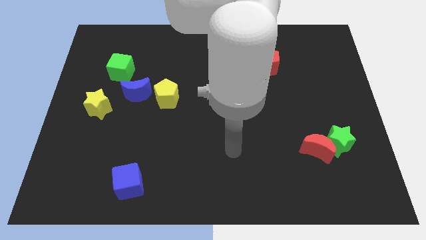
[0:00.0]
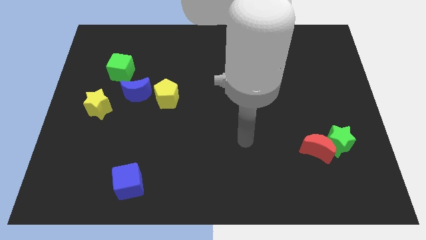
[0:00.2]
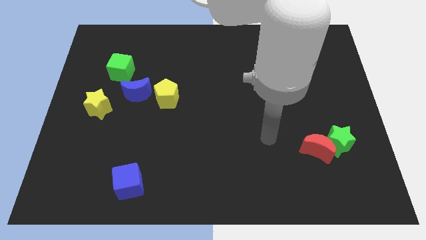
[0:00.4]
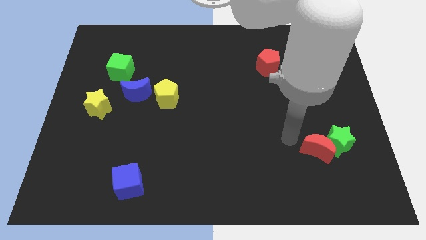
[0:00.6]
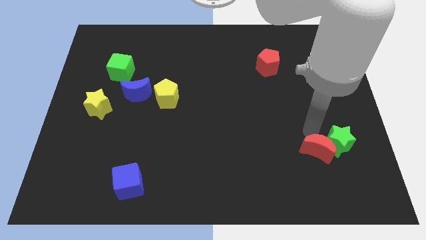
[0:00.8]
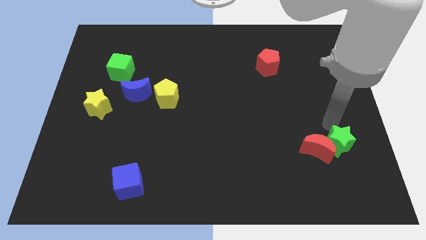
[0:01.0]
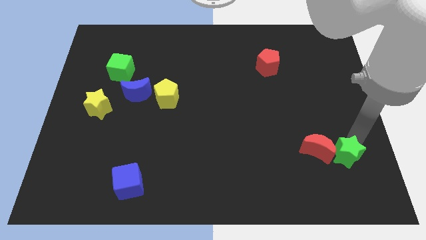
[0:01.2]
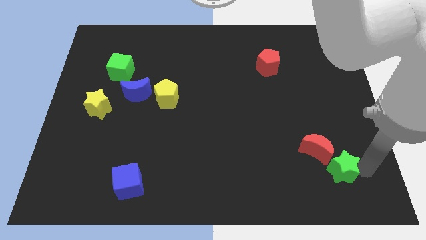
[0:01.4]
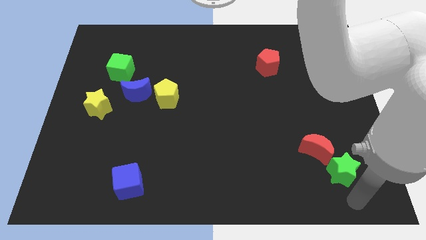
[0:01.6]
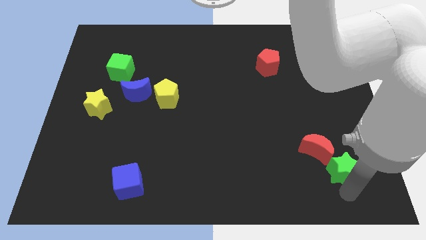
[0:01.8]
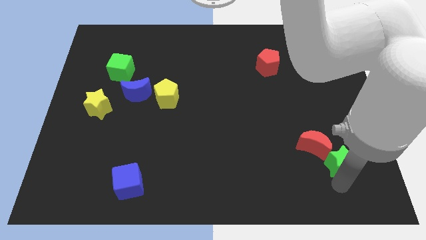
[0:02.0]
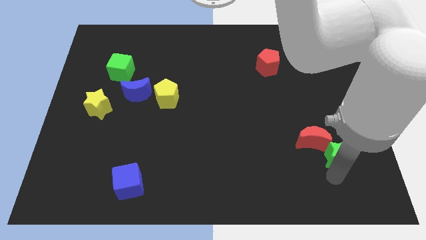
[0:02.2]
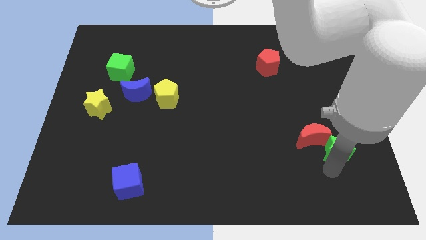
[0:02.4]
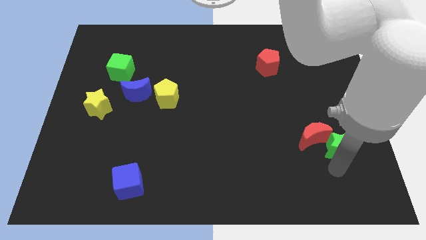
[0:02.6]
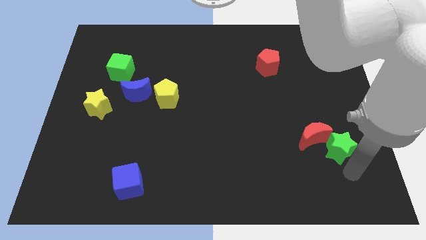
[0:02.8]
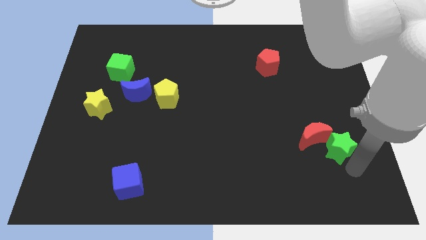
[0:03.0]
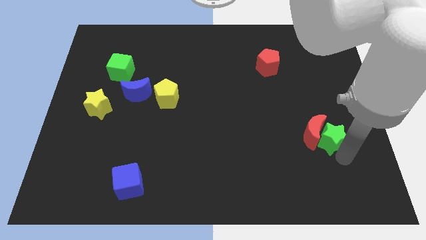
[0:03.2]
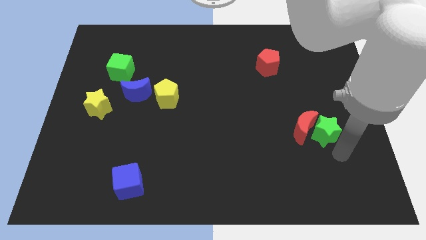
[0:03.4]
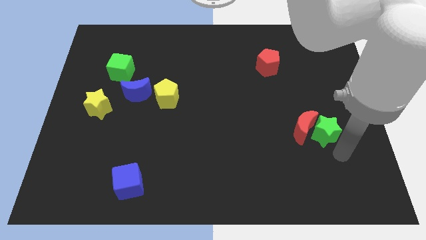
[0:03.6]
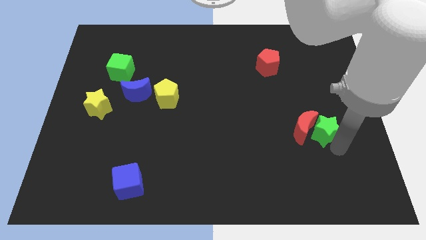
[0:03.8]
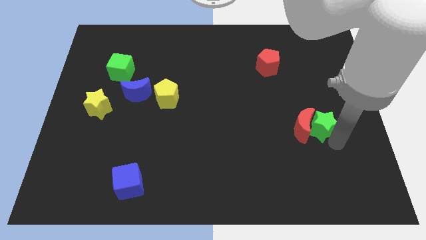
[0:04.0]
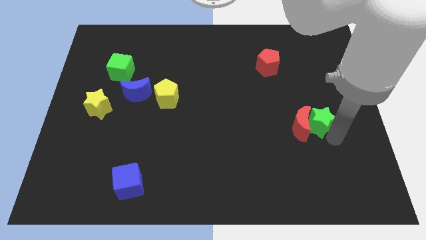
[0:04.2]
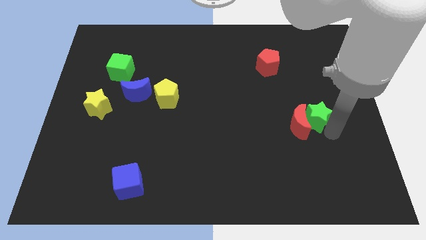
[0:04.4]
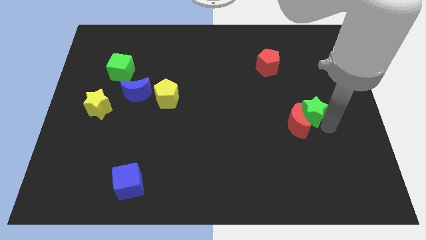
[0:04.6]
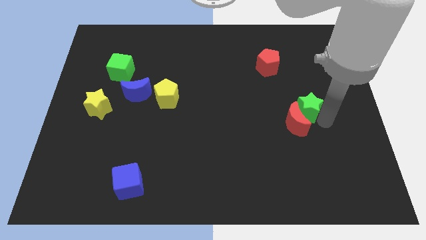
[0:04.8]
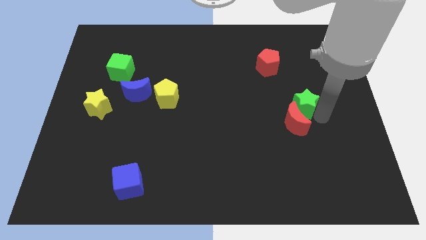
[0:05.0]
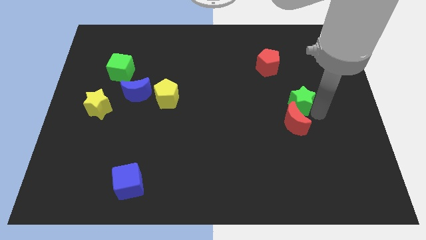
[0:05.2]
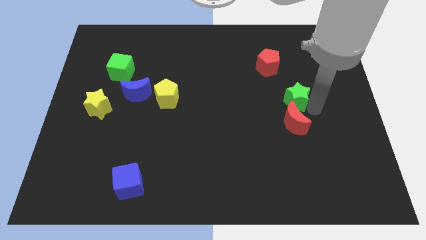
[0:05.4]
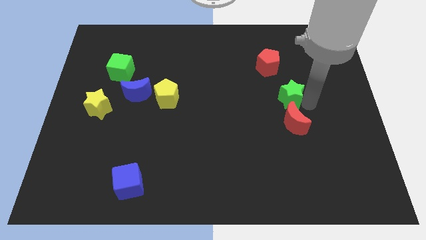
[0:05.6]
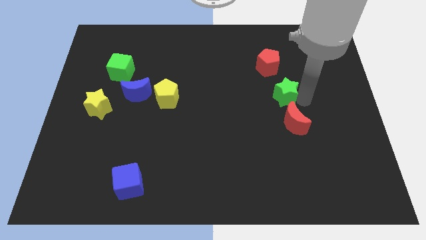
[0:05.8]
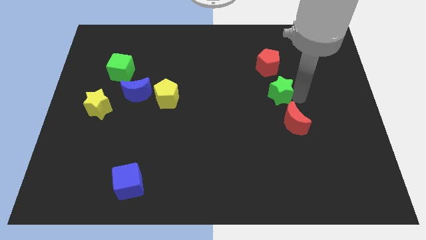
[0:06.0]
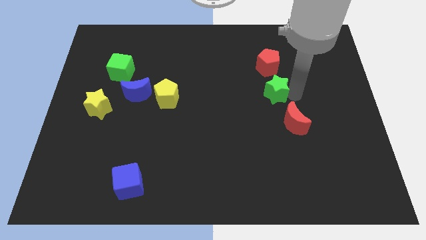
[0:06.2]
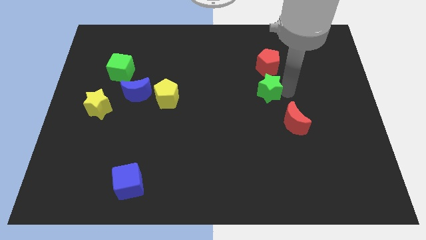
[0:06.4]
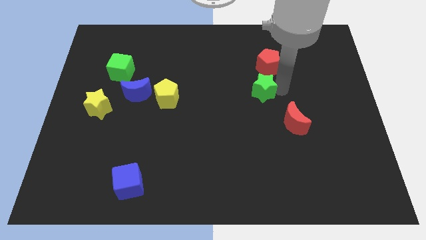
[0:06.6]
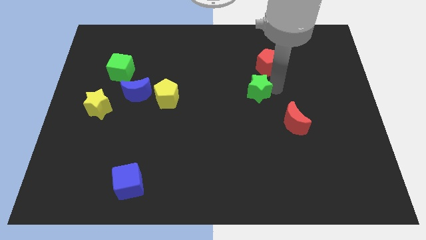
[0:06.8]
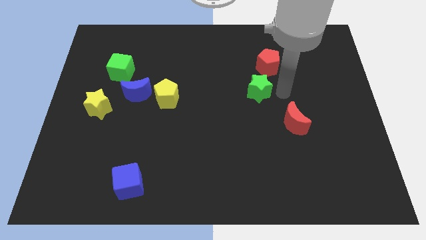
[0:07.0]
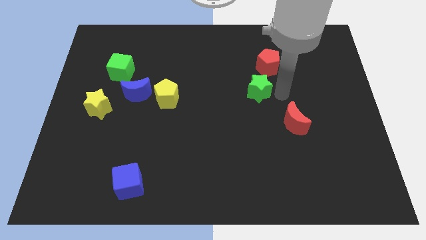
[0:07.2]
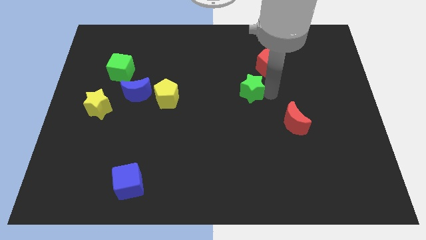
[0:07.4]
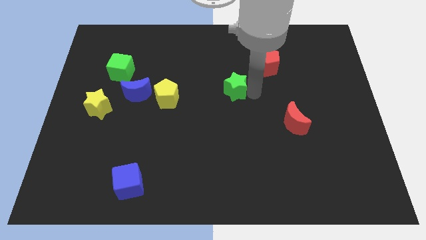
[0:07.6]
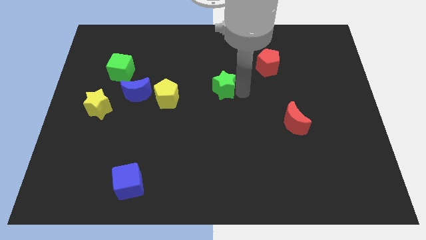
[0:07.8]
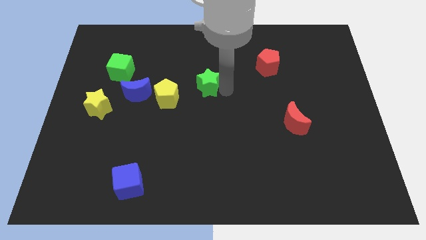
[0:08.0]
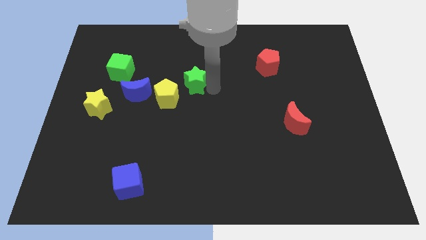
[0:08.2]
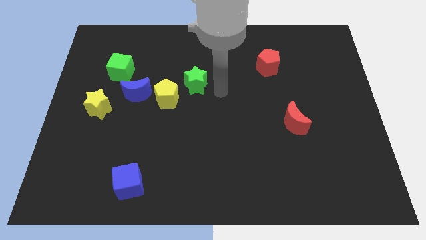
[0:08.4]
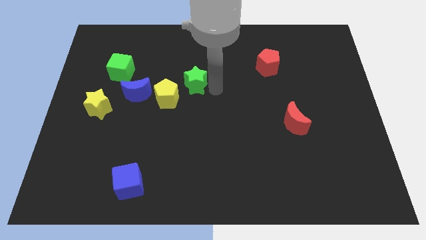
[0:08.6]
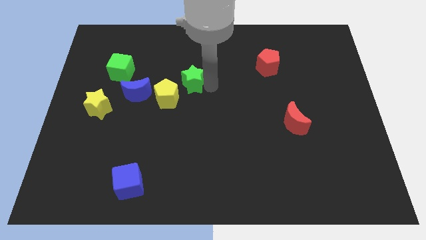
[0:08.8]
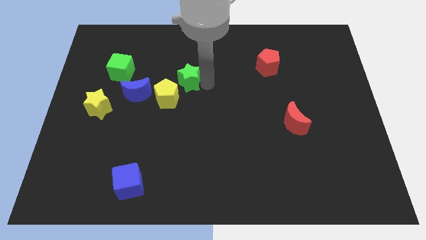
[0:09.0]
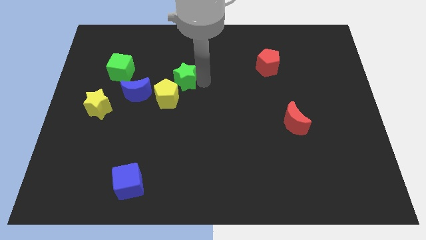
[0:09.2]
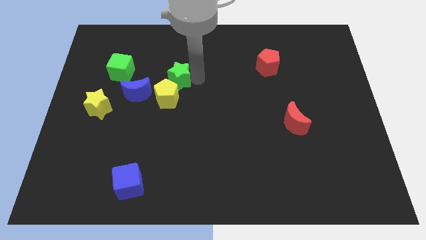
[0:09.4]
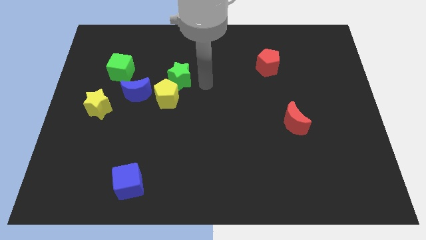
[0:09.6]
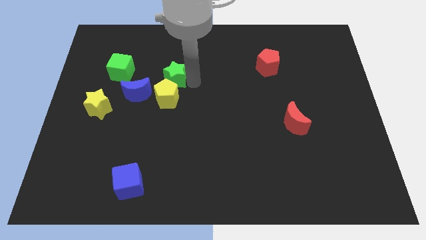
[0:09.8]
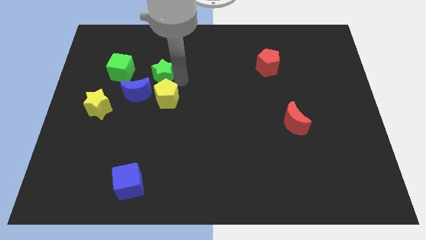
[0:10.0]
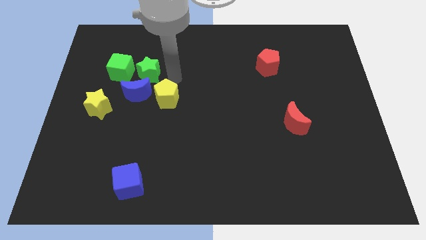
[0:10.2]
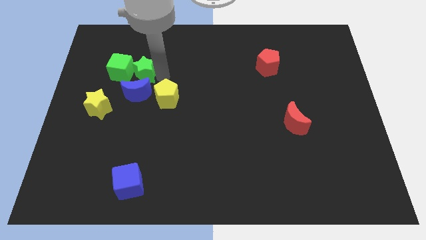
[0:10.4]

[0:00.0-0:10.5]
push the green star close to the green cube
